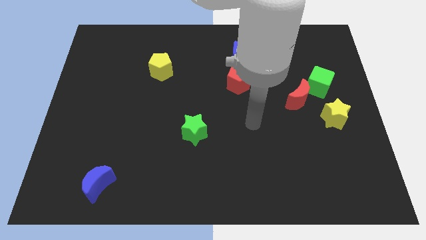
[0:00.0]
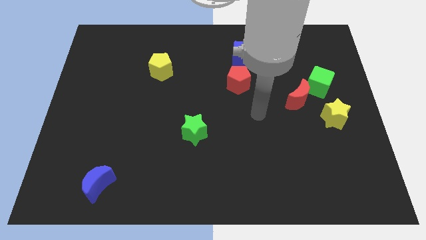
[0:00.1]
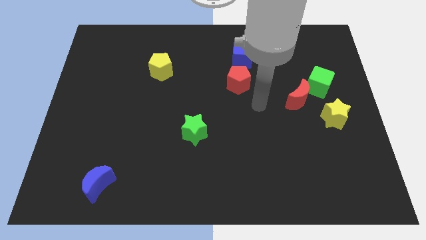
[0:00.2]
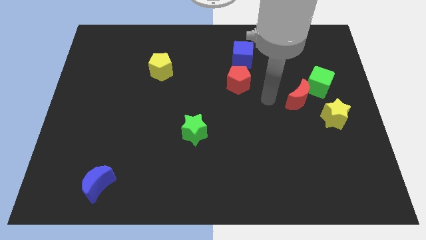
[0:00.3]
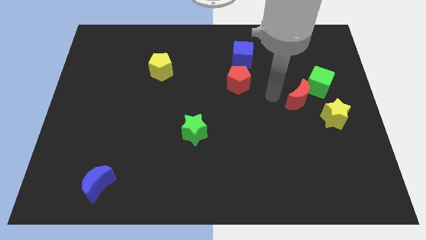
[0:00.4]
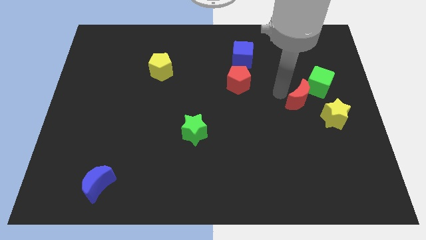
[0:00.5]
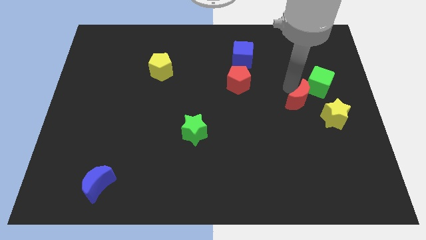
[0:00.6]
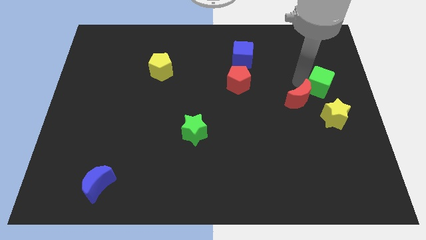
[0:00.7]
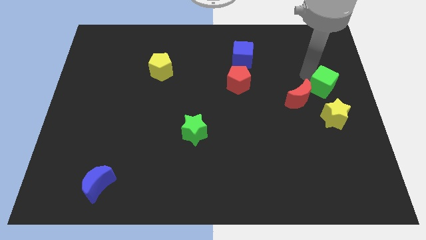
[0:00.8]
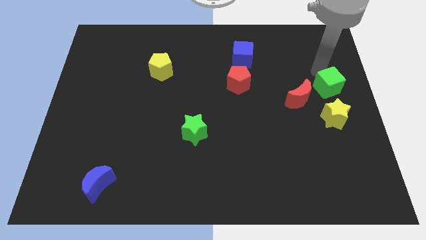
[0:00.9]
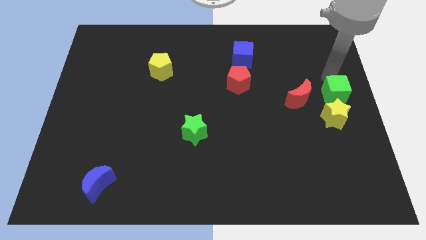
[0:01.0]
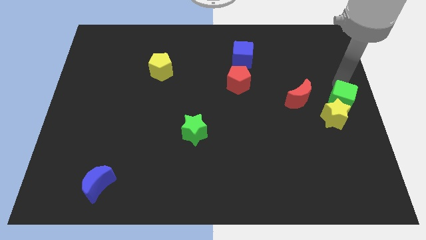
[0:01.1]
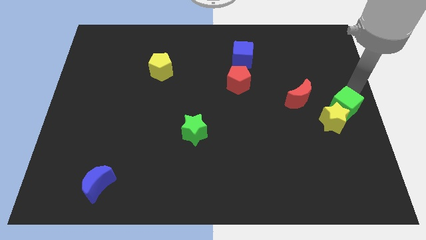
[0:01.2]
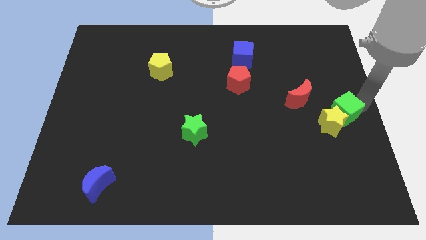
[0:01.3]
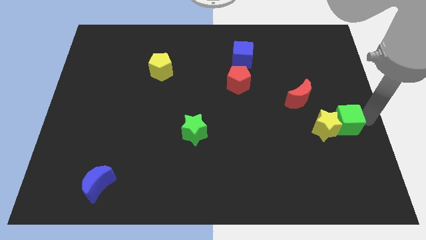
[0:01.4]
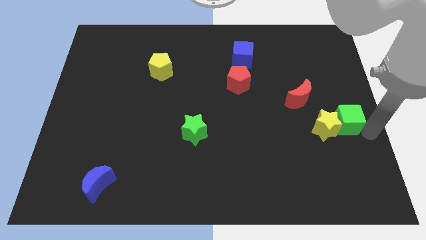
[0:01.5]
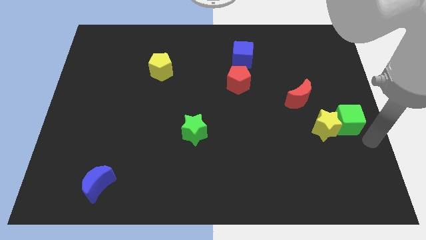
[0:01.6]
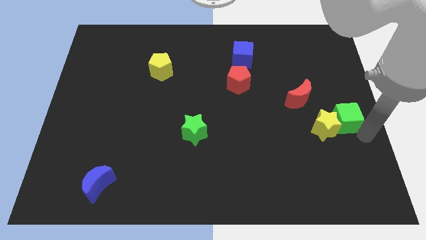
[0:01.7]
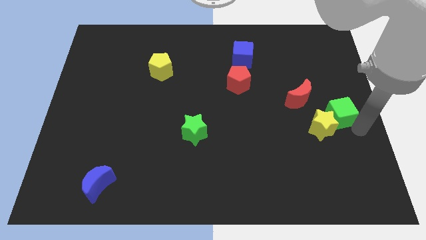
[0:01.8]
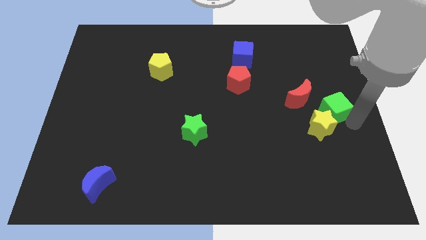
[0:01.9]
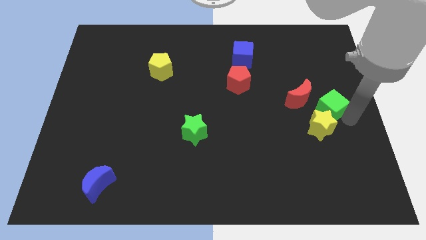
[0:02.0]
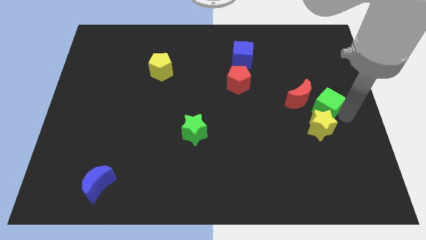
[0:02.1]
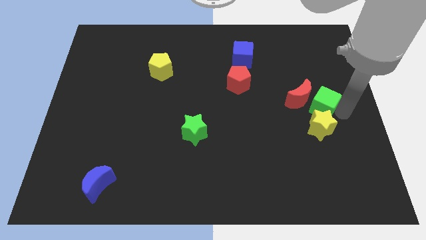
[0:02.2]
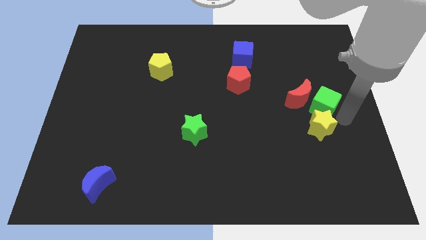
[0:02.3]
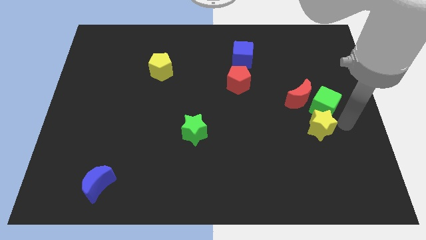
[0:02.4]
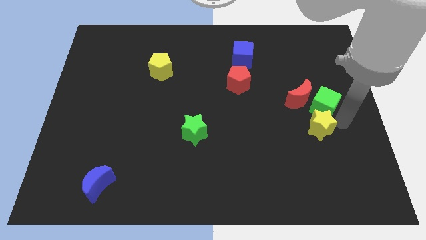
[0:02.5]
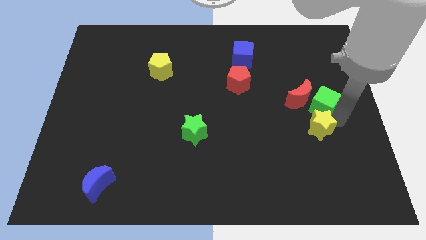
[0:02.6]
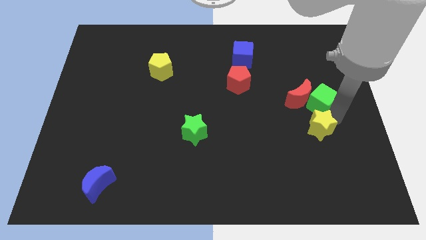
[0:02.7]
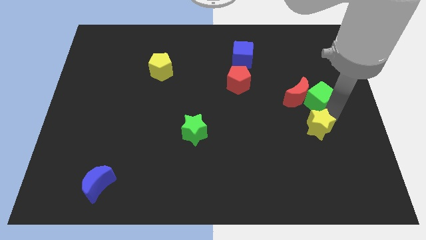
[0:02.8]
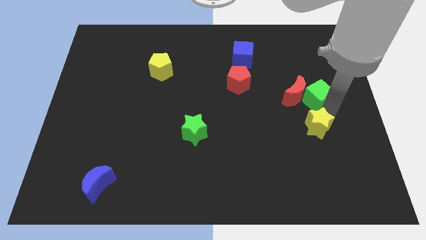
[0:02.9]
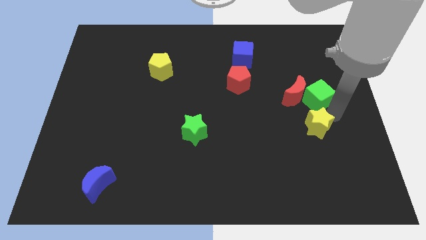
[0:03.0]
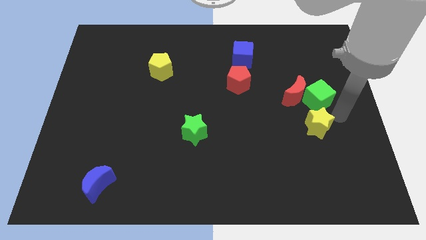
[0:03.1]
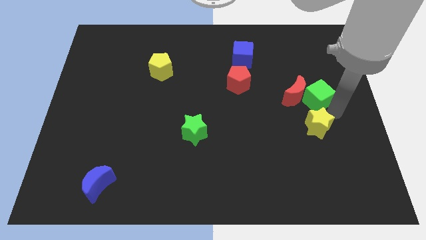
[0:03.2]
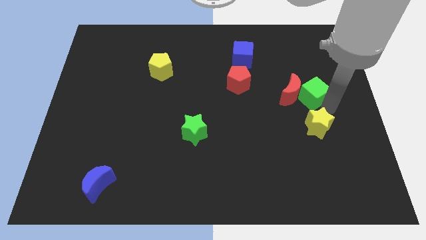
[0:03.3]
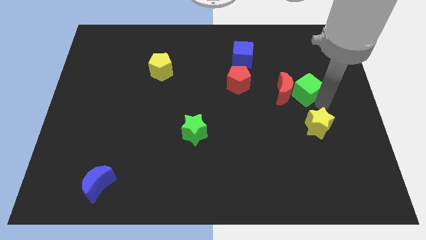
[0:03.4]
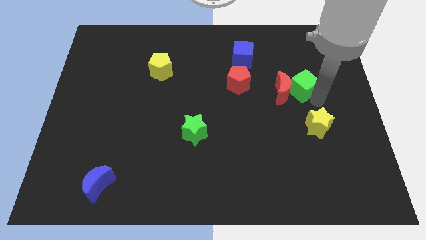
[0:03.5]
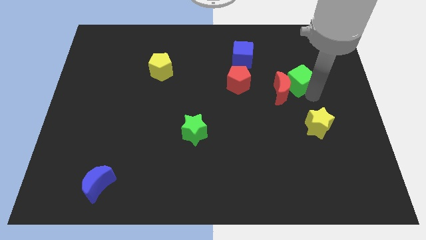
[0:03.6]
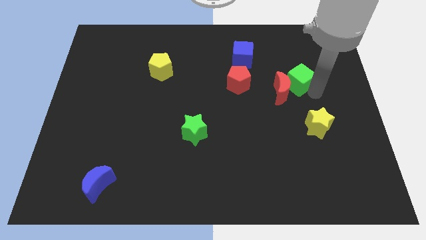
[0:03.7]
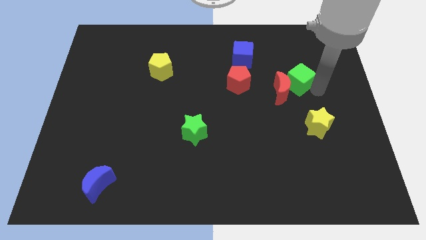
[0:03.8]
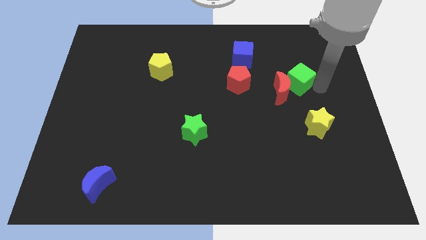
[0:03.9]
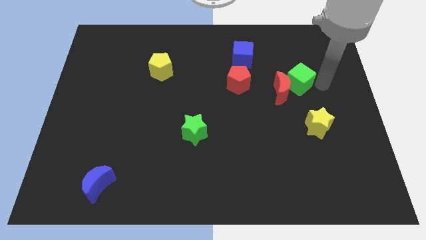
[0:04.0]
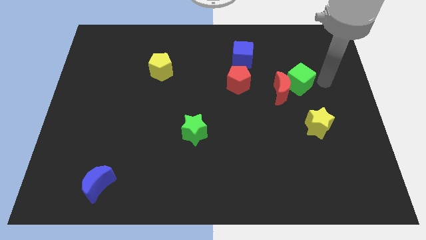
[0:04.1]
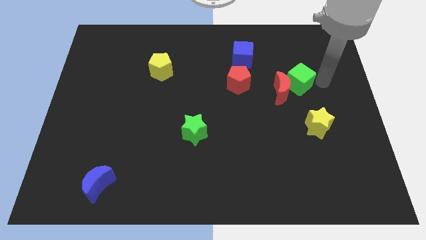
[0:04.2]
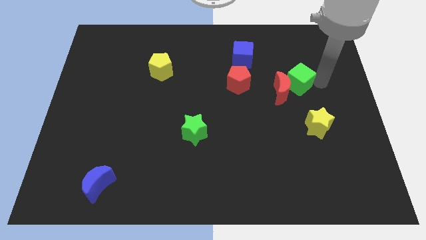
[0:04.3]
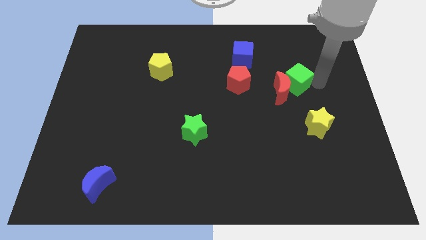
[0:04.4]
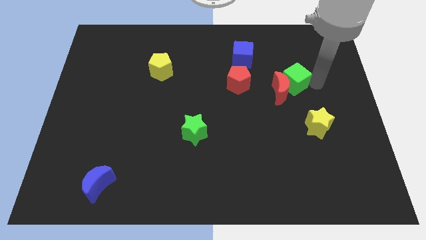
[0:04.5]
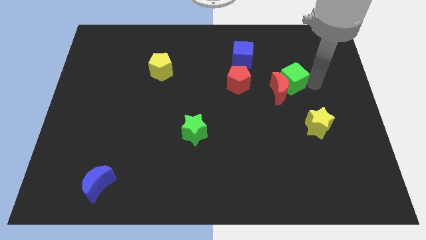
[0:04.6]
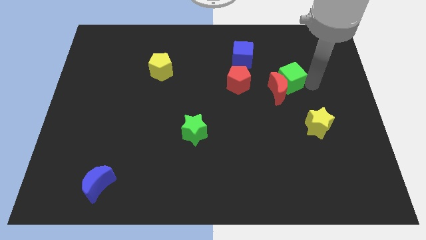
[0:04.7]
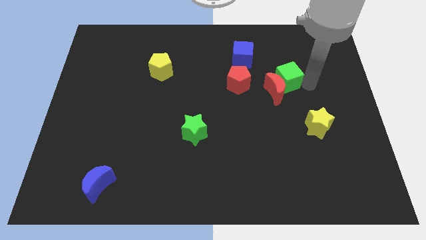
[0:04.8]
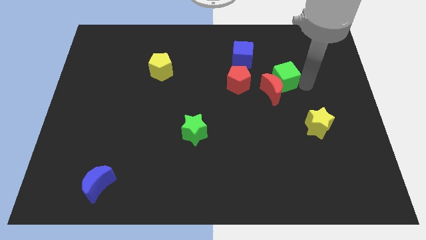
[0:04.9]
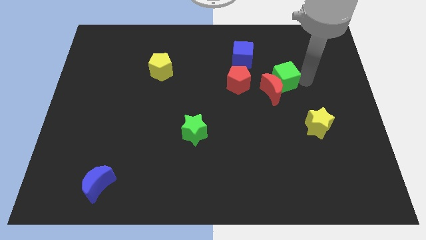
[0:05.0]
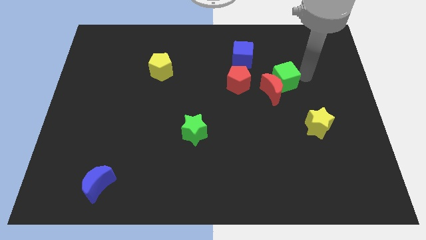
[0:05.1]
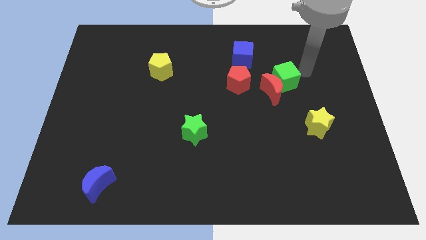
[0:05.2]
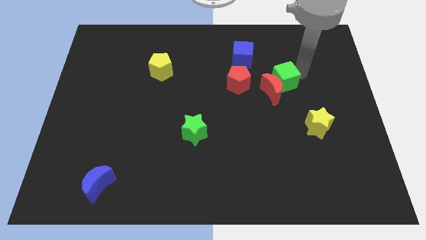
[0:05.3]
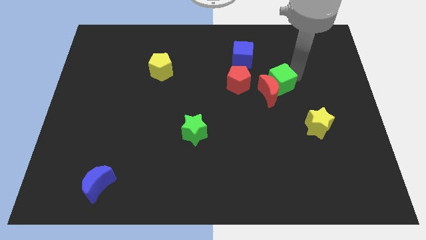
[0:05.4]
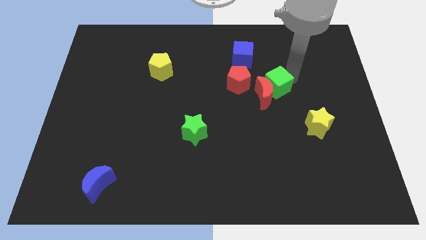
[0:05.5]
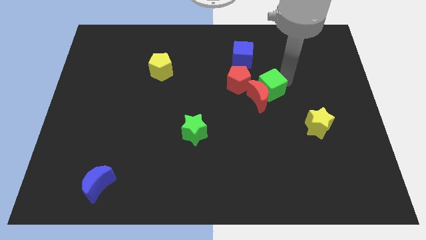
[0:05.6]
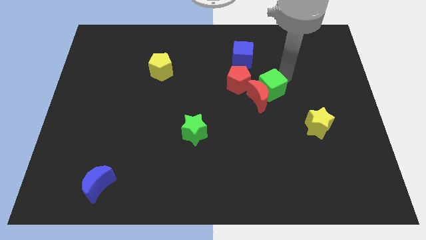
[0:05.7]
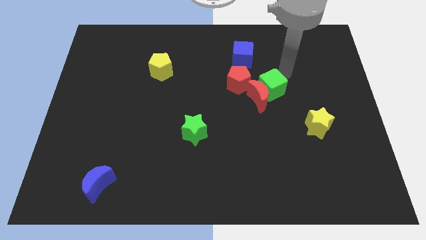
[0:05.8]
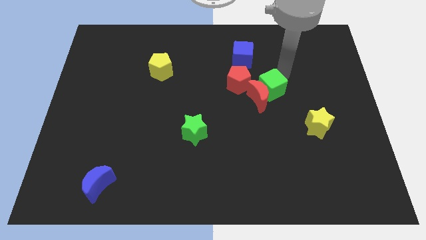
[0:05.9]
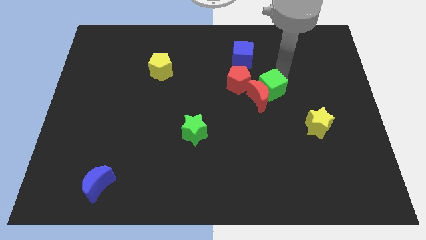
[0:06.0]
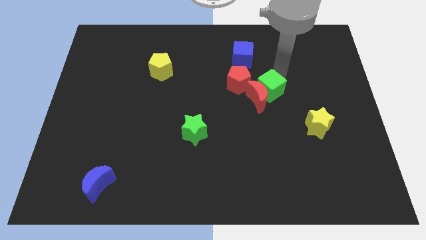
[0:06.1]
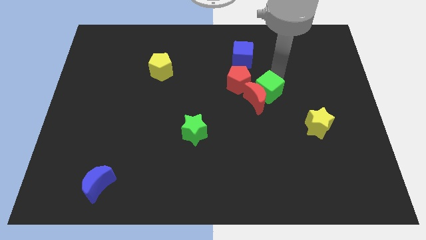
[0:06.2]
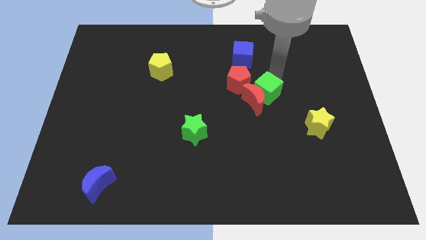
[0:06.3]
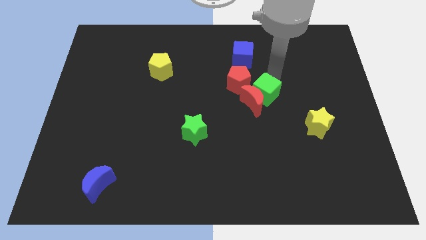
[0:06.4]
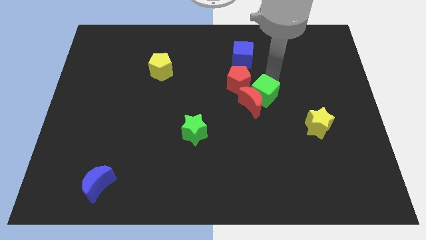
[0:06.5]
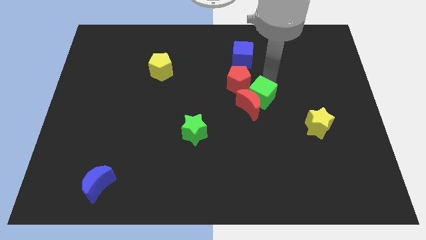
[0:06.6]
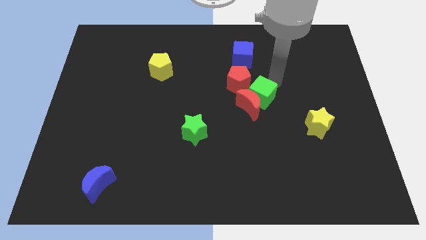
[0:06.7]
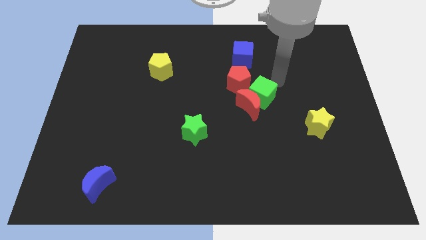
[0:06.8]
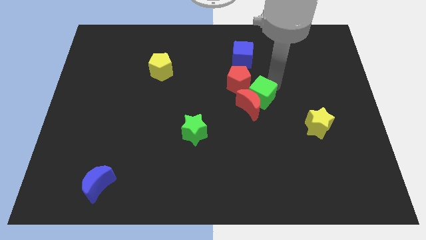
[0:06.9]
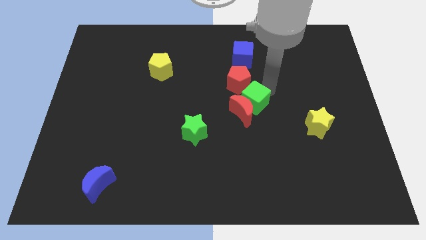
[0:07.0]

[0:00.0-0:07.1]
push the green cube below the red pentagon
